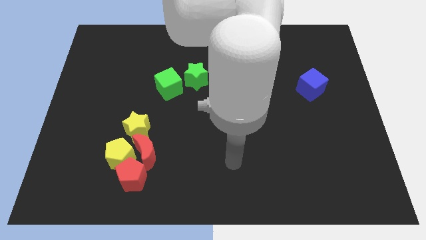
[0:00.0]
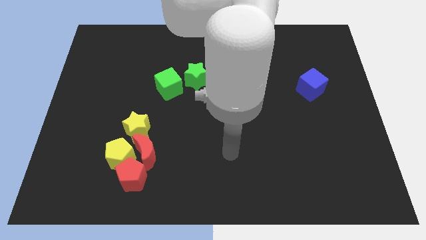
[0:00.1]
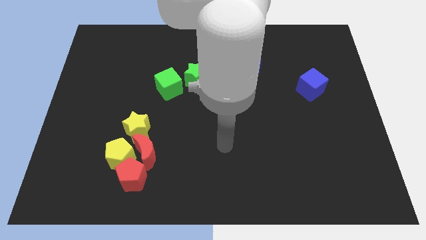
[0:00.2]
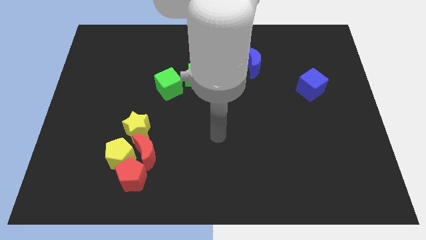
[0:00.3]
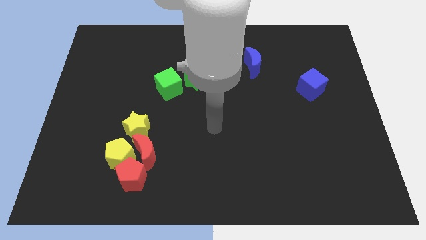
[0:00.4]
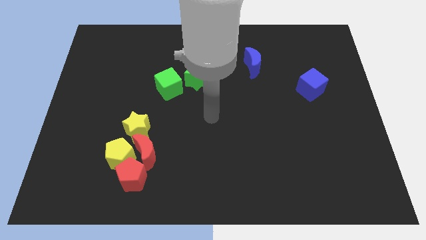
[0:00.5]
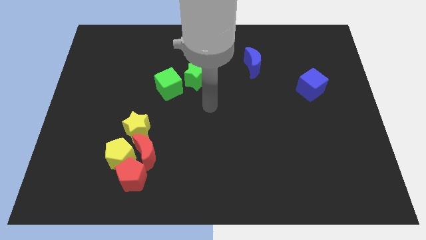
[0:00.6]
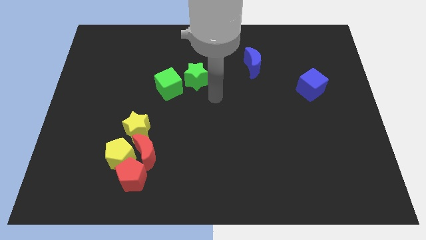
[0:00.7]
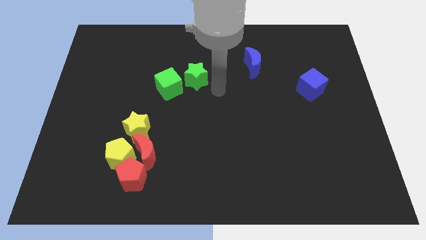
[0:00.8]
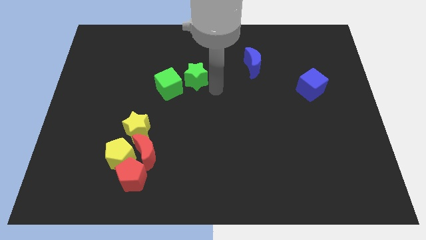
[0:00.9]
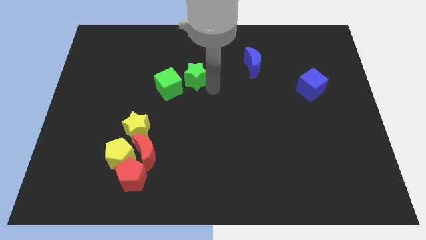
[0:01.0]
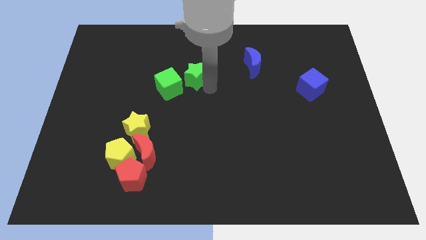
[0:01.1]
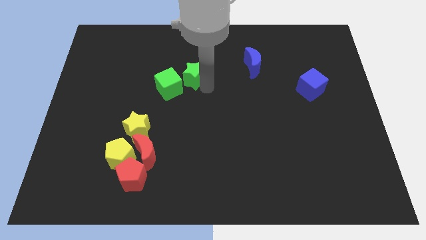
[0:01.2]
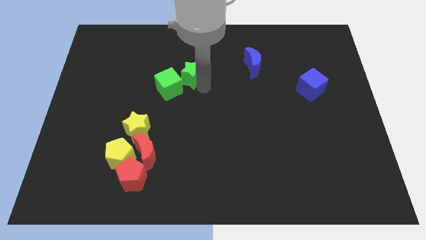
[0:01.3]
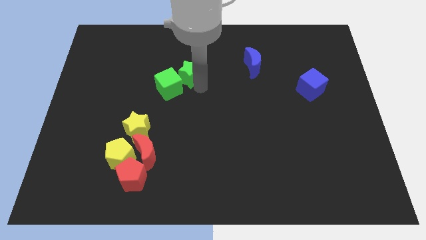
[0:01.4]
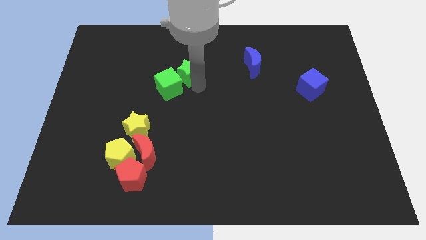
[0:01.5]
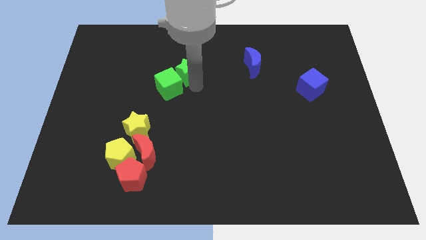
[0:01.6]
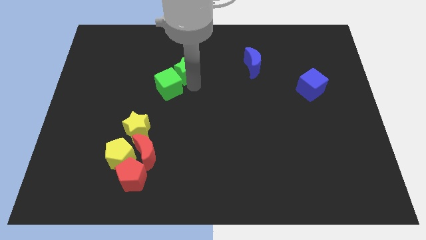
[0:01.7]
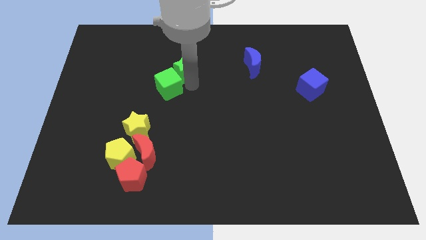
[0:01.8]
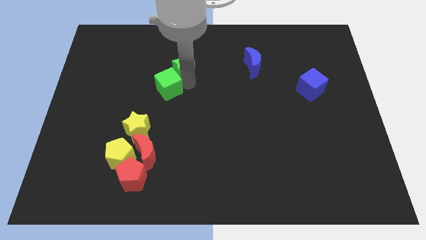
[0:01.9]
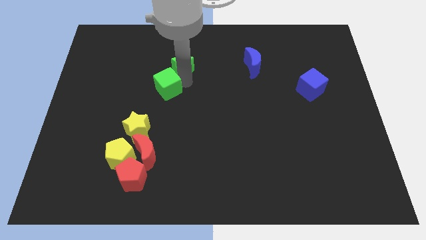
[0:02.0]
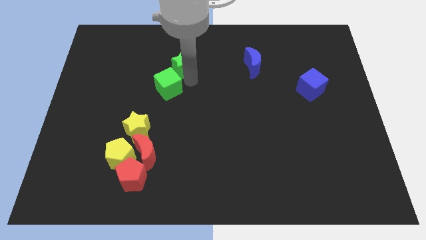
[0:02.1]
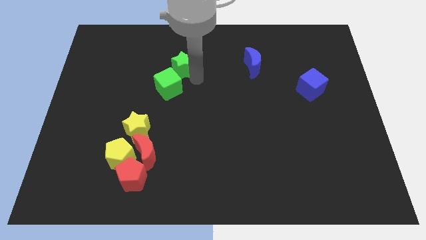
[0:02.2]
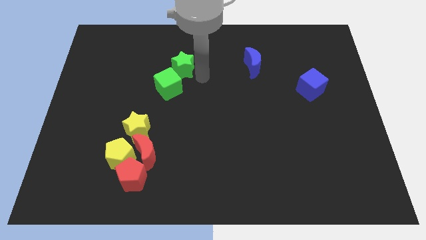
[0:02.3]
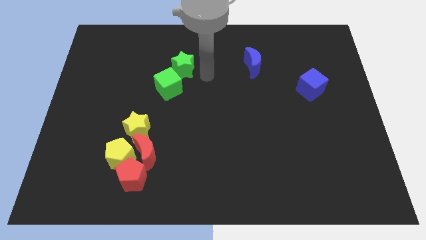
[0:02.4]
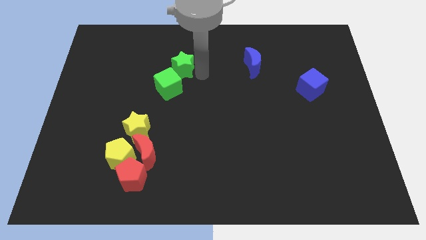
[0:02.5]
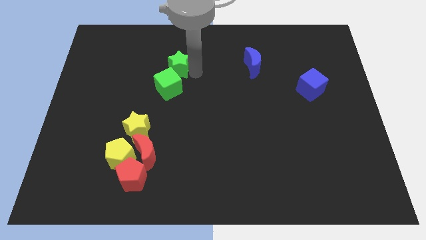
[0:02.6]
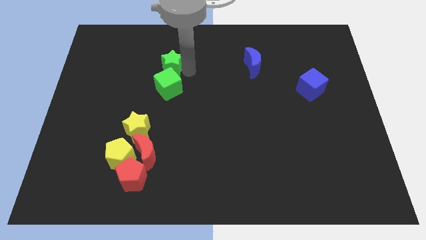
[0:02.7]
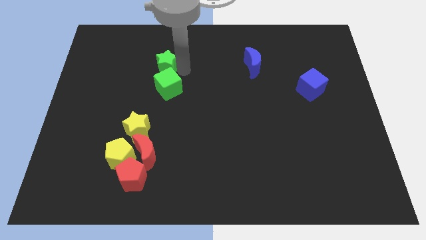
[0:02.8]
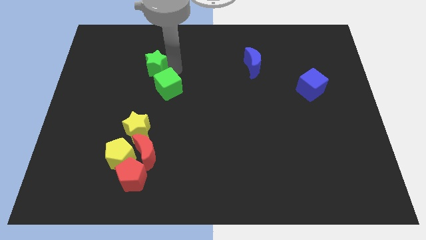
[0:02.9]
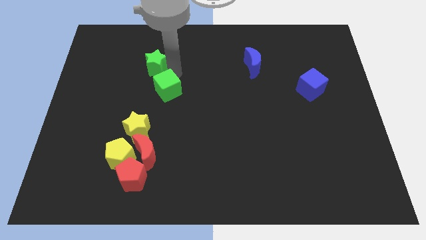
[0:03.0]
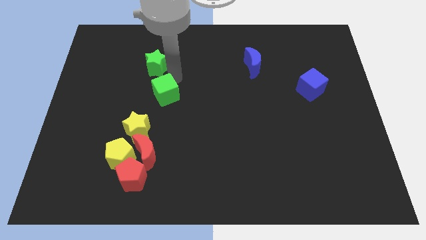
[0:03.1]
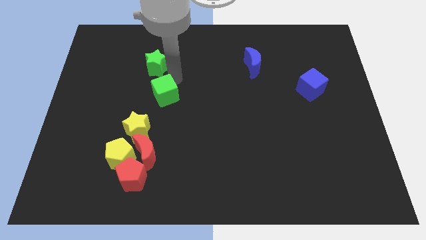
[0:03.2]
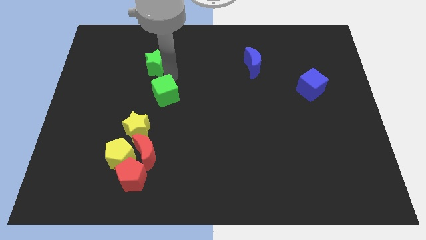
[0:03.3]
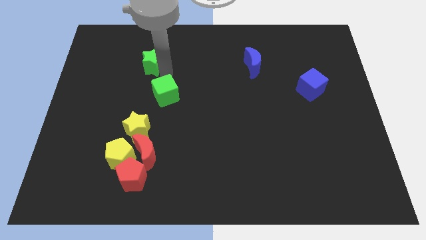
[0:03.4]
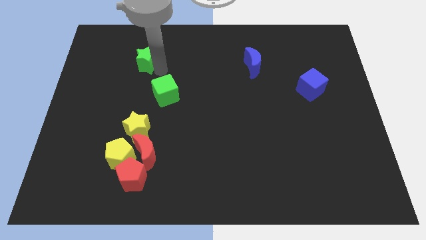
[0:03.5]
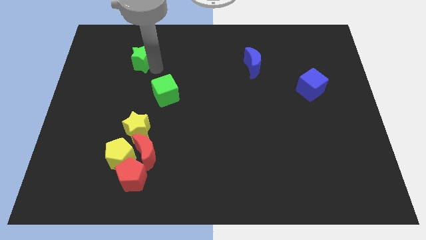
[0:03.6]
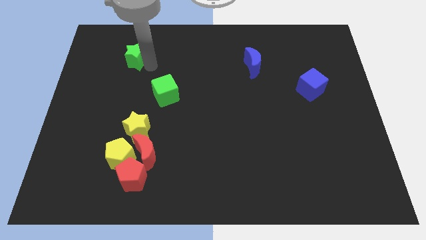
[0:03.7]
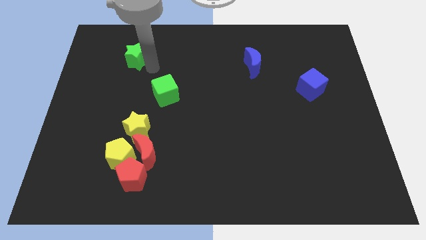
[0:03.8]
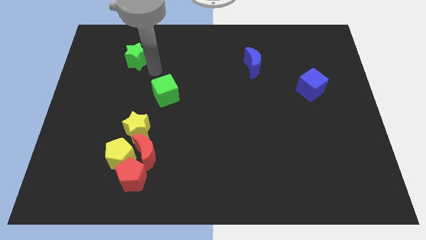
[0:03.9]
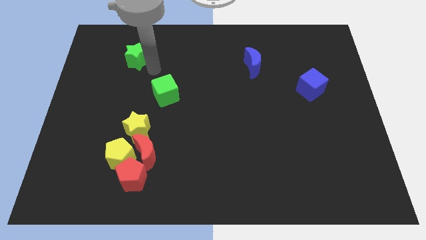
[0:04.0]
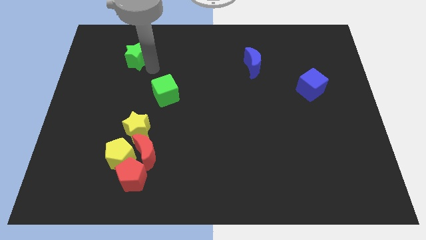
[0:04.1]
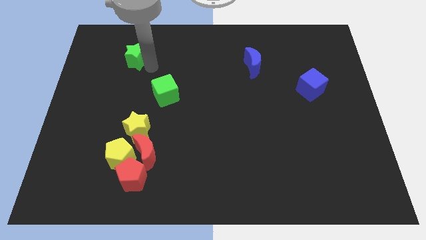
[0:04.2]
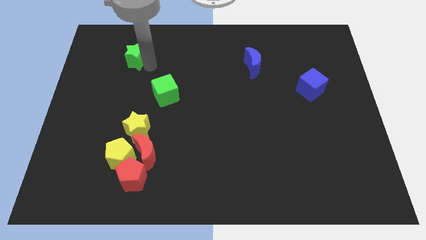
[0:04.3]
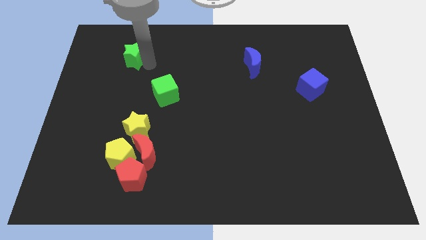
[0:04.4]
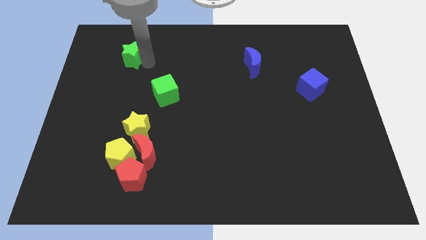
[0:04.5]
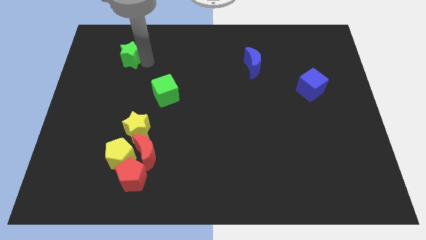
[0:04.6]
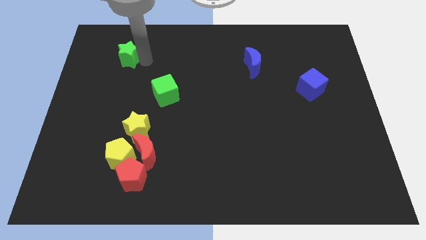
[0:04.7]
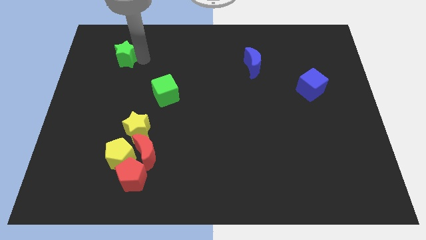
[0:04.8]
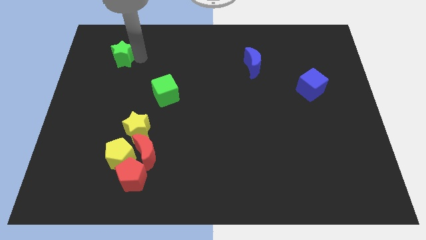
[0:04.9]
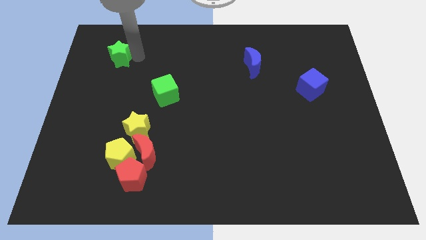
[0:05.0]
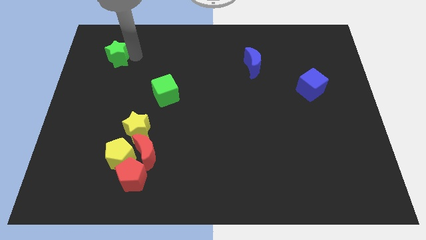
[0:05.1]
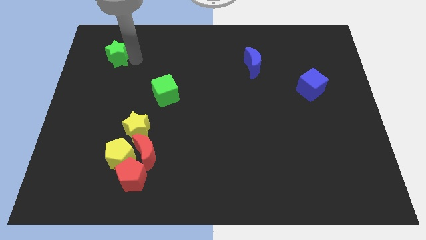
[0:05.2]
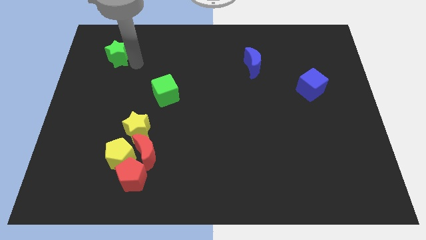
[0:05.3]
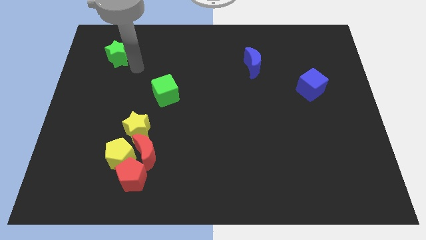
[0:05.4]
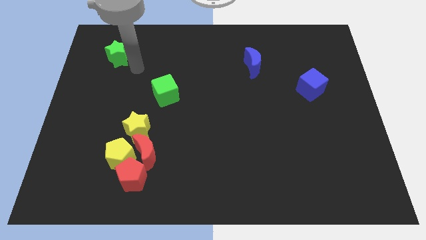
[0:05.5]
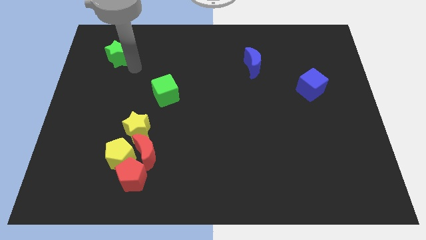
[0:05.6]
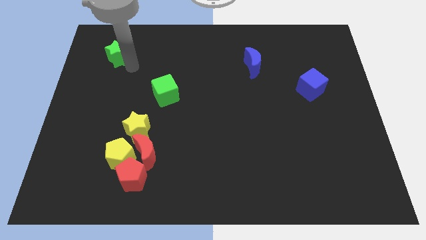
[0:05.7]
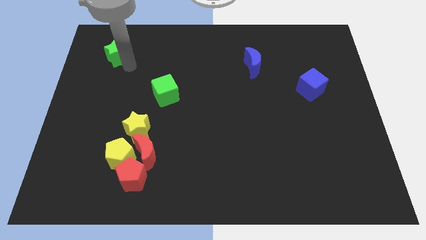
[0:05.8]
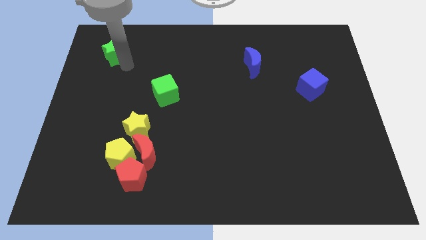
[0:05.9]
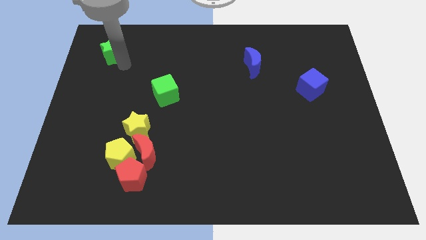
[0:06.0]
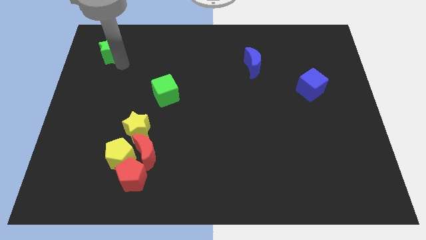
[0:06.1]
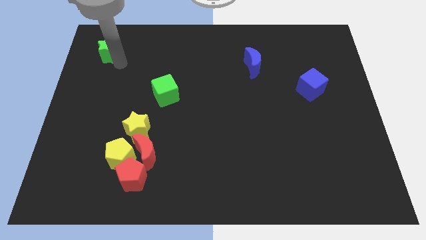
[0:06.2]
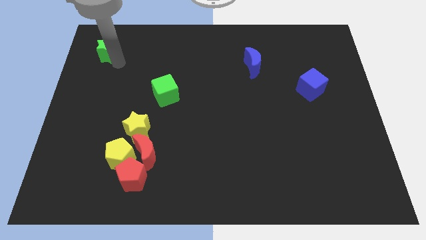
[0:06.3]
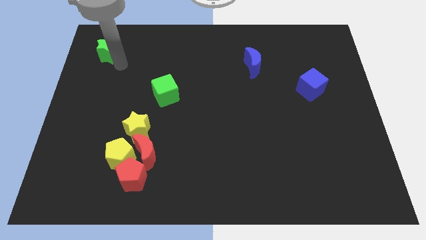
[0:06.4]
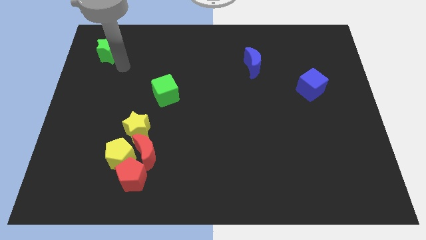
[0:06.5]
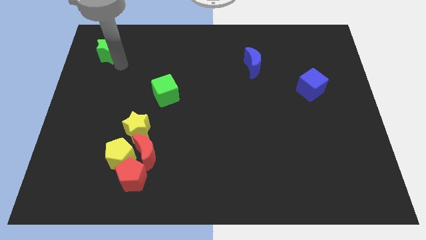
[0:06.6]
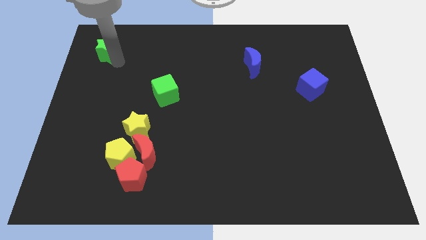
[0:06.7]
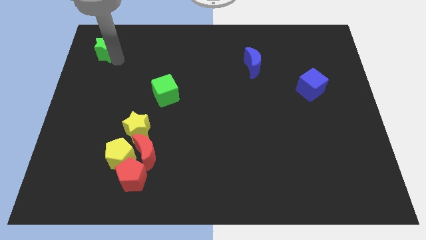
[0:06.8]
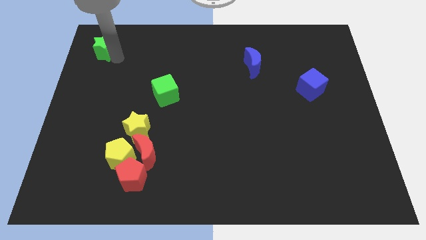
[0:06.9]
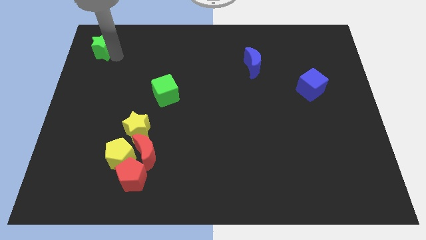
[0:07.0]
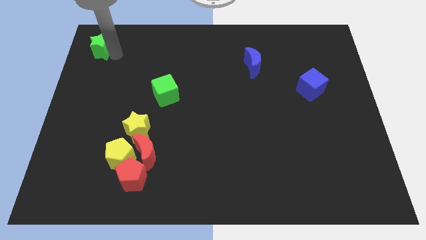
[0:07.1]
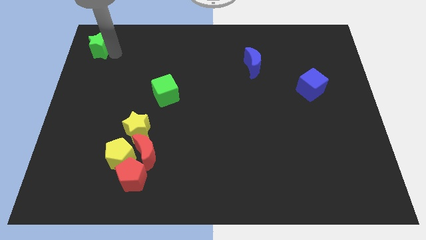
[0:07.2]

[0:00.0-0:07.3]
push the green star to the top left
